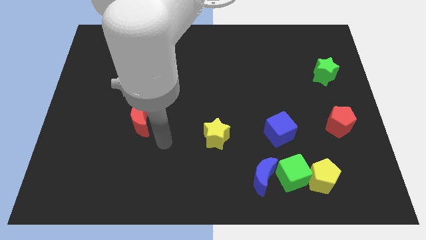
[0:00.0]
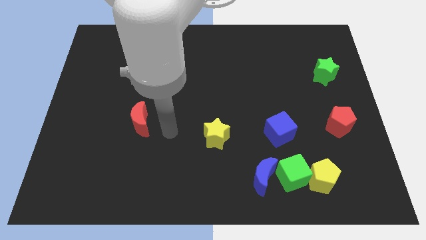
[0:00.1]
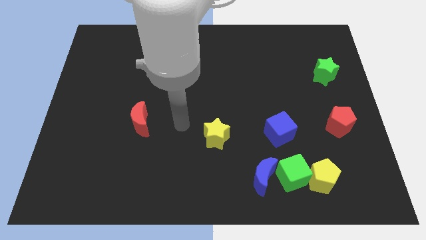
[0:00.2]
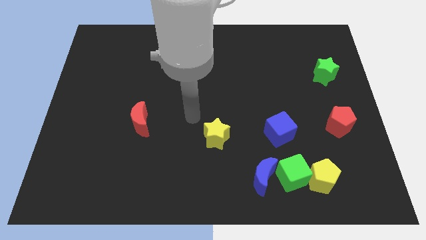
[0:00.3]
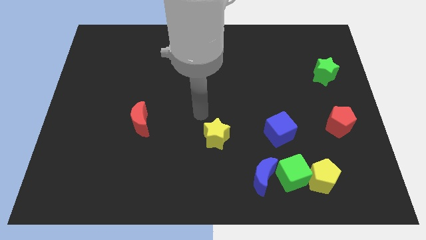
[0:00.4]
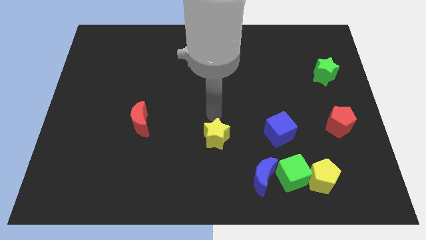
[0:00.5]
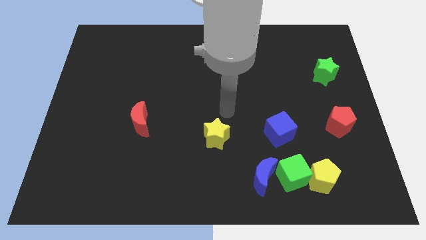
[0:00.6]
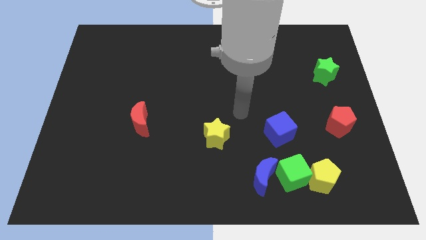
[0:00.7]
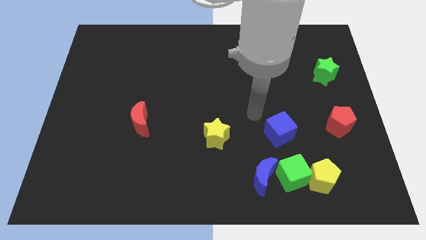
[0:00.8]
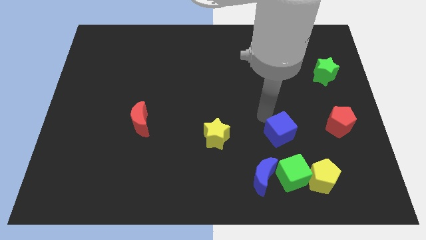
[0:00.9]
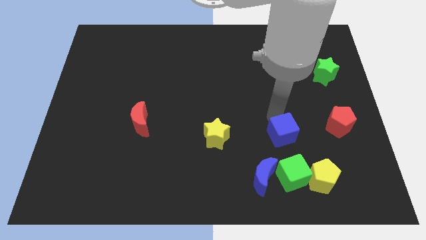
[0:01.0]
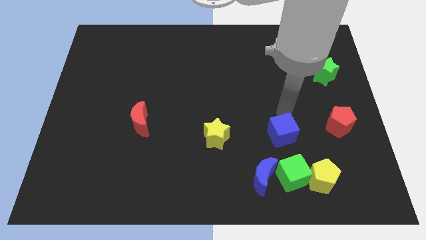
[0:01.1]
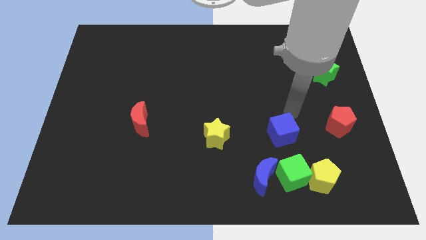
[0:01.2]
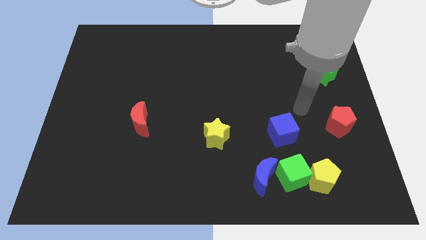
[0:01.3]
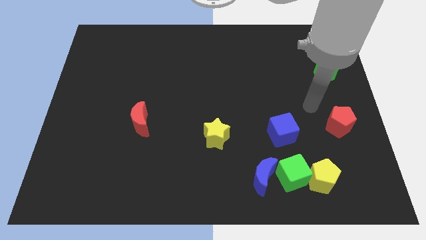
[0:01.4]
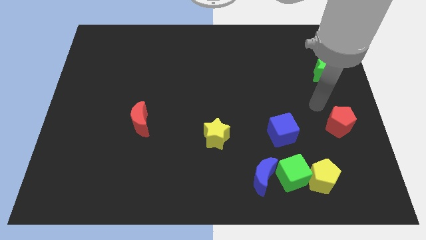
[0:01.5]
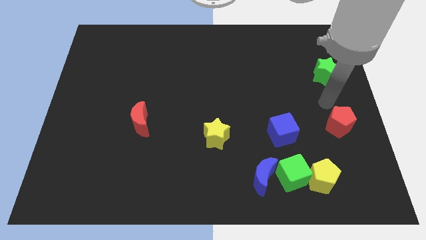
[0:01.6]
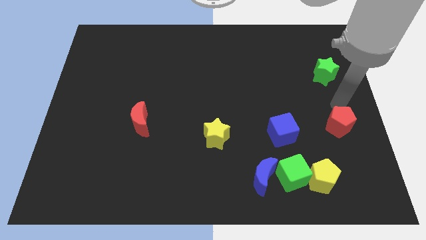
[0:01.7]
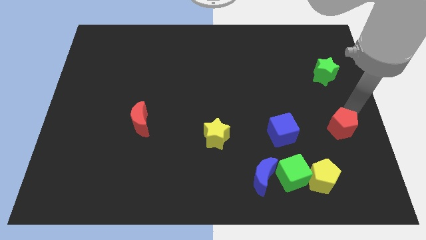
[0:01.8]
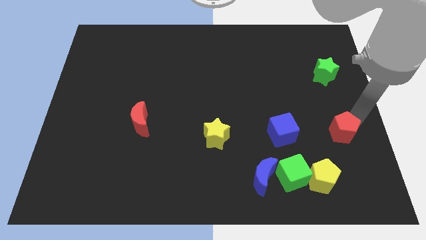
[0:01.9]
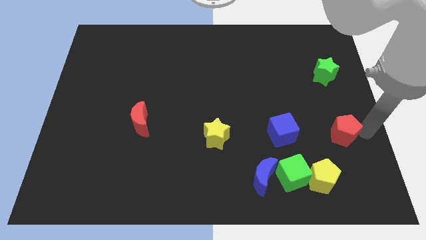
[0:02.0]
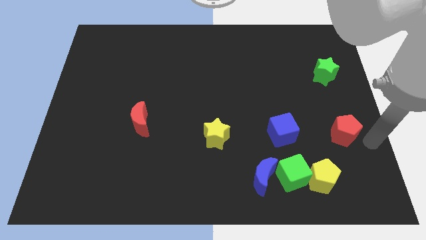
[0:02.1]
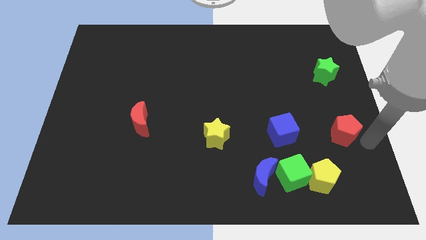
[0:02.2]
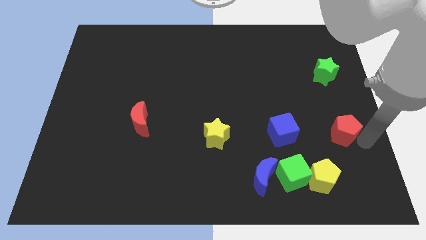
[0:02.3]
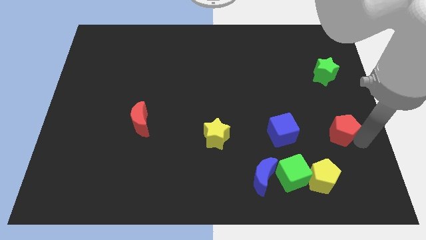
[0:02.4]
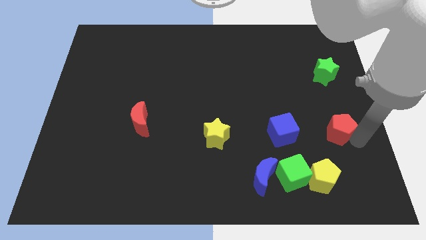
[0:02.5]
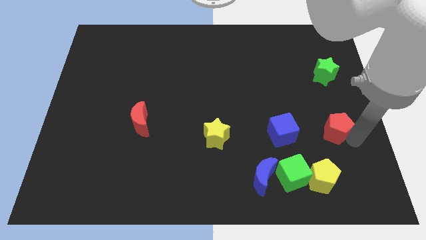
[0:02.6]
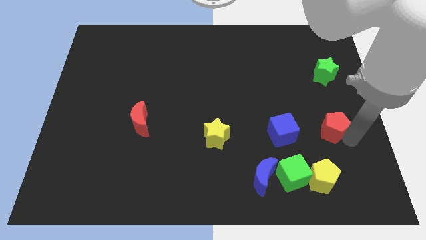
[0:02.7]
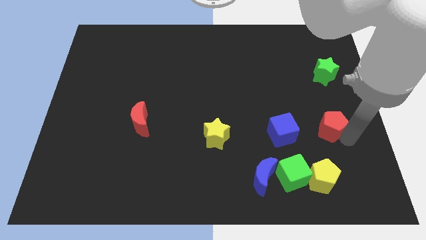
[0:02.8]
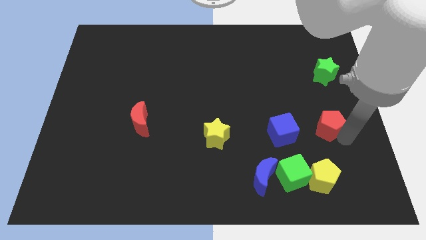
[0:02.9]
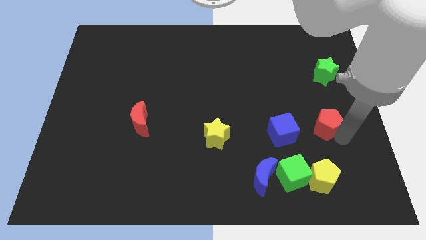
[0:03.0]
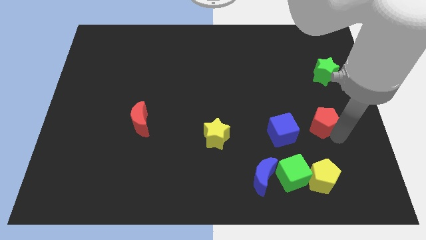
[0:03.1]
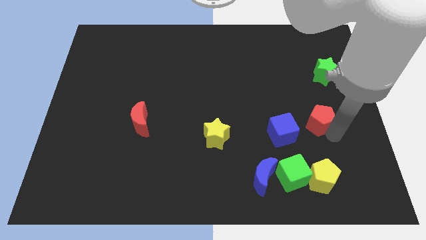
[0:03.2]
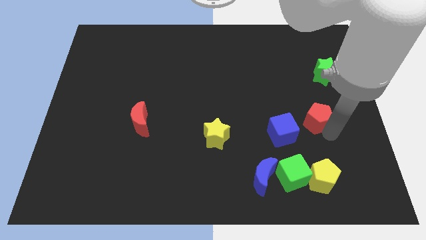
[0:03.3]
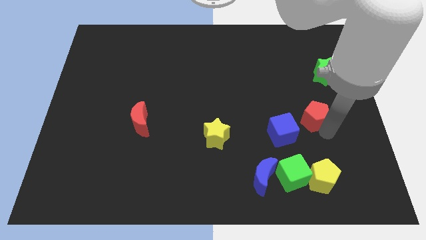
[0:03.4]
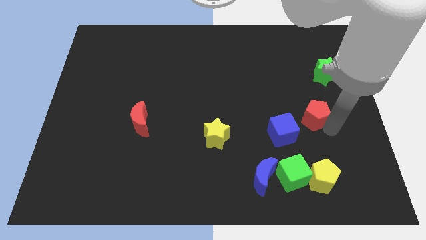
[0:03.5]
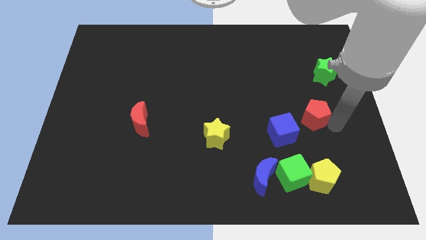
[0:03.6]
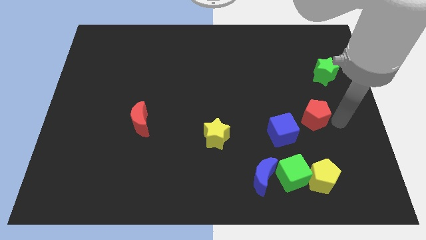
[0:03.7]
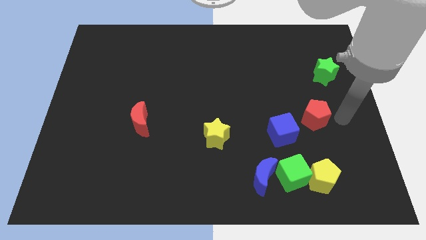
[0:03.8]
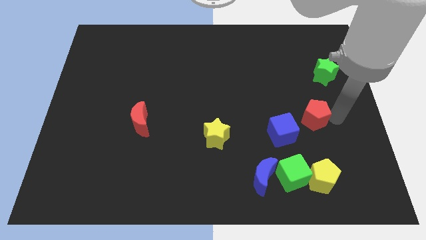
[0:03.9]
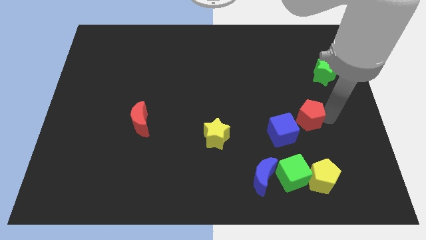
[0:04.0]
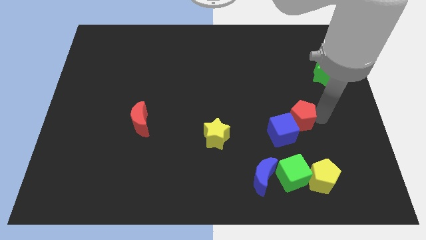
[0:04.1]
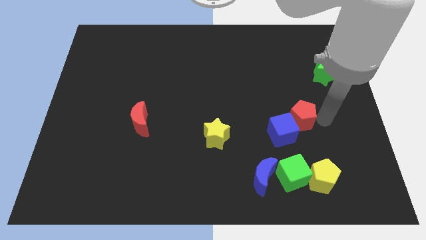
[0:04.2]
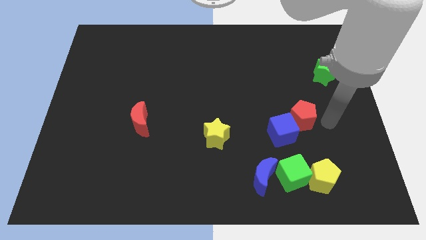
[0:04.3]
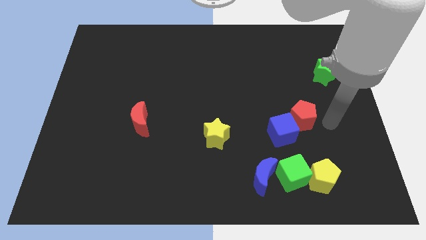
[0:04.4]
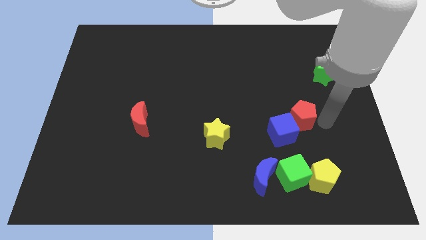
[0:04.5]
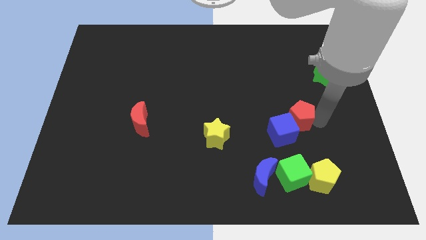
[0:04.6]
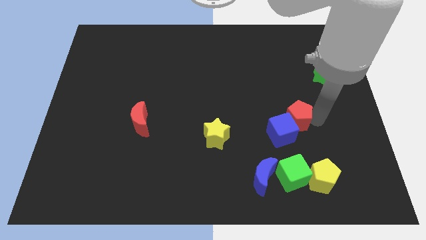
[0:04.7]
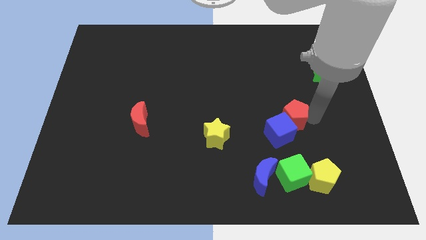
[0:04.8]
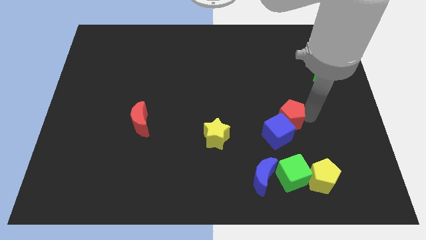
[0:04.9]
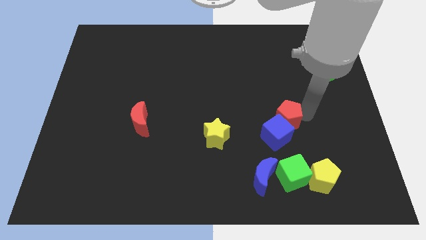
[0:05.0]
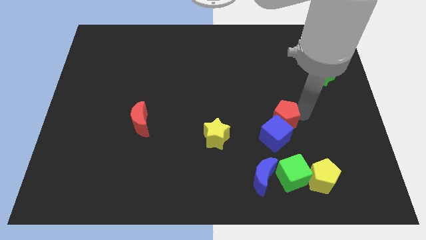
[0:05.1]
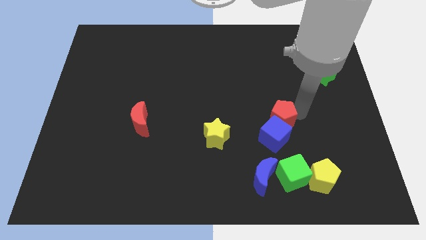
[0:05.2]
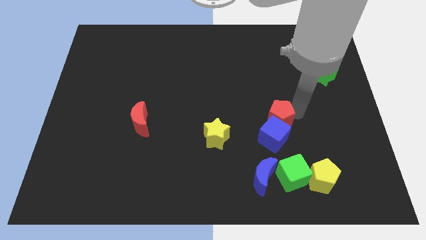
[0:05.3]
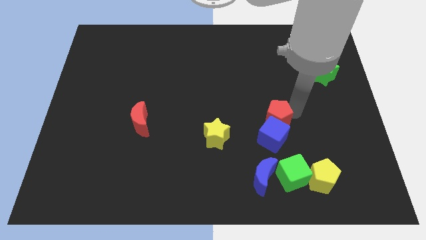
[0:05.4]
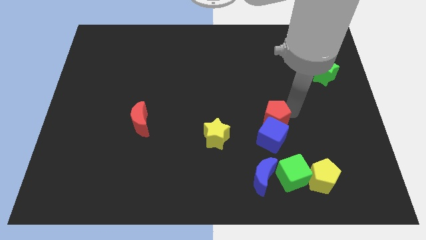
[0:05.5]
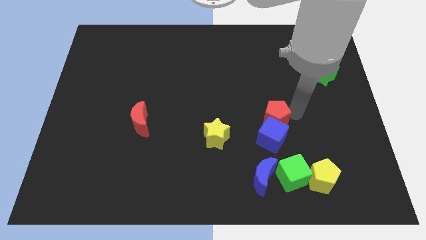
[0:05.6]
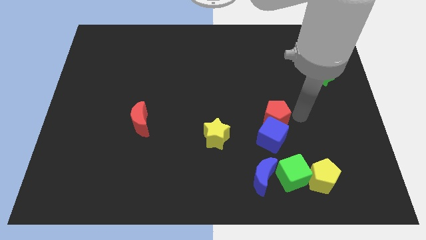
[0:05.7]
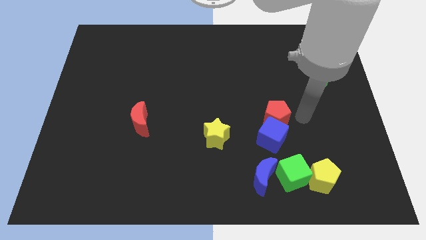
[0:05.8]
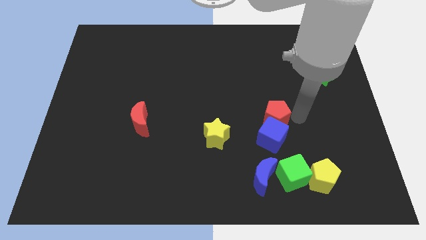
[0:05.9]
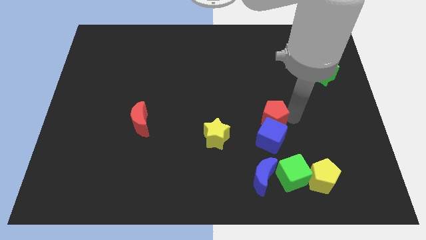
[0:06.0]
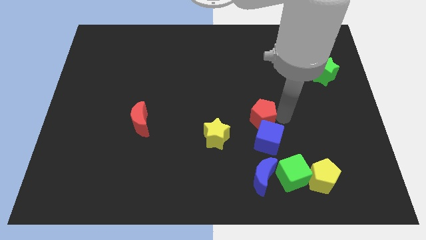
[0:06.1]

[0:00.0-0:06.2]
put the red pentagon to the top right side of the yellow star

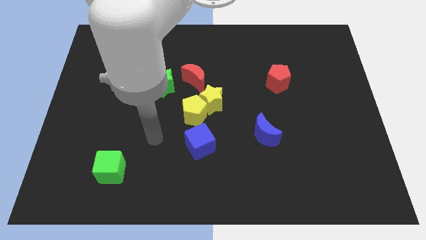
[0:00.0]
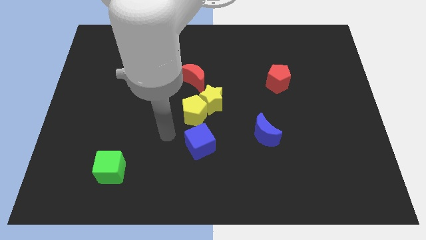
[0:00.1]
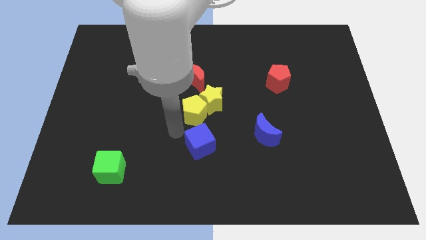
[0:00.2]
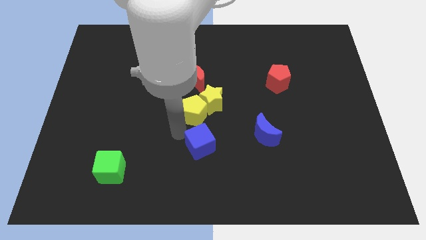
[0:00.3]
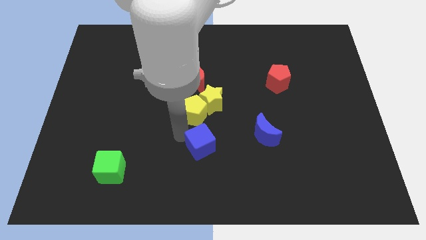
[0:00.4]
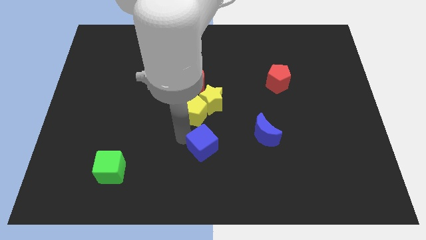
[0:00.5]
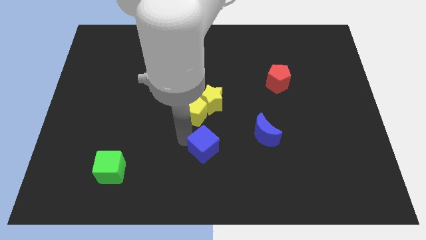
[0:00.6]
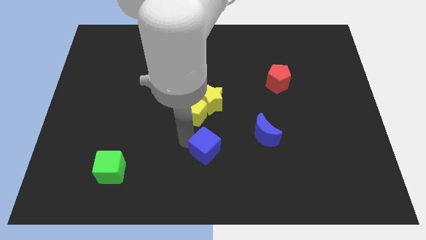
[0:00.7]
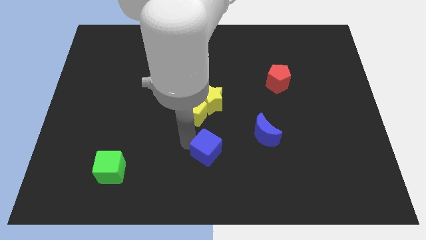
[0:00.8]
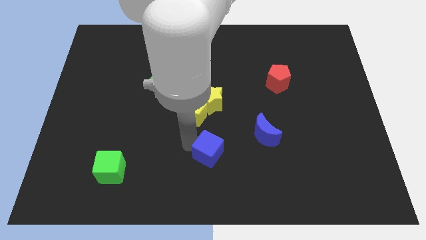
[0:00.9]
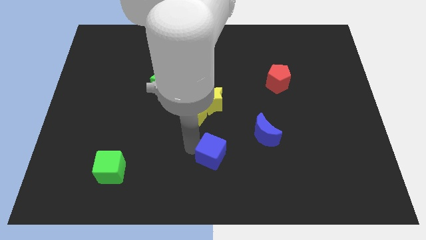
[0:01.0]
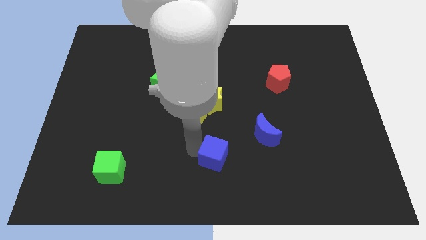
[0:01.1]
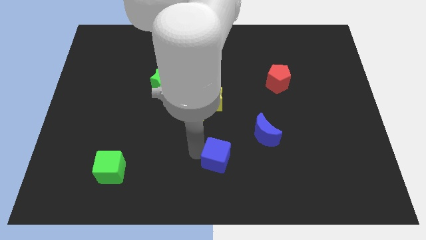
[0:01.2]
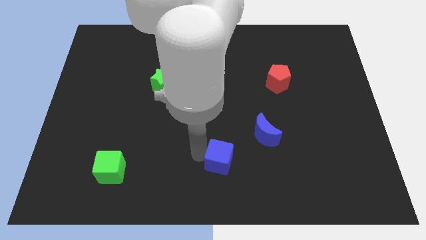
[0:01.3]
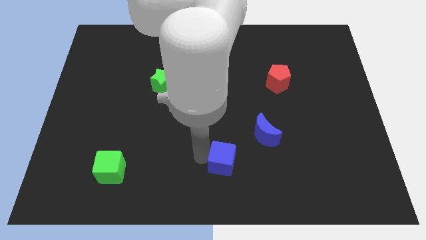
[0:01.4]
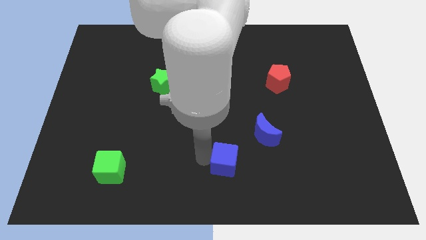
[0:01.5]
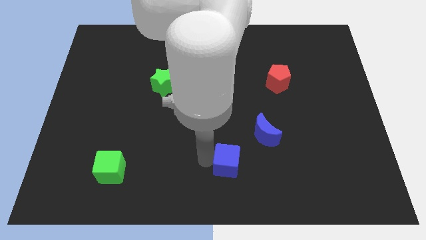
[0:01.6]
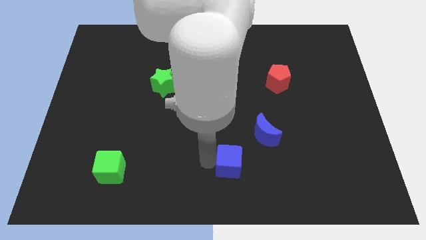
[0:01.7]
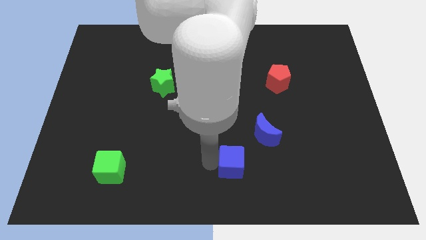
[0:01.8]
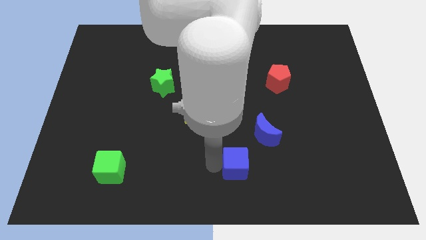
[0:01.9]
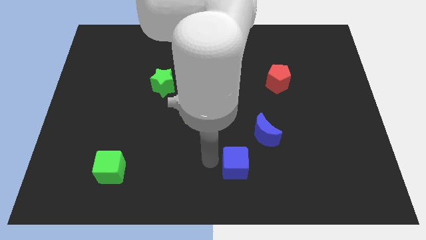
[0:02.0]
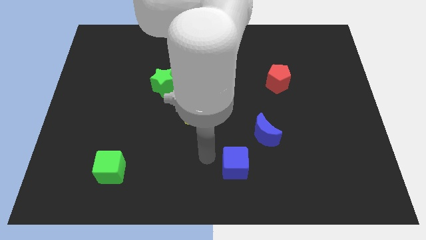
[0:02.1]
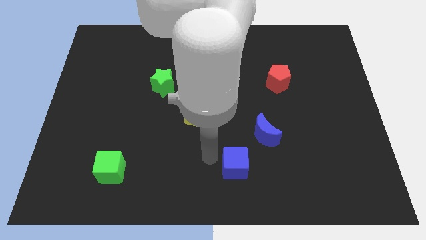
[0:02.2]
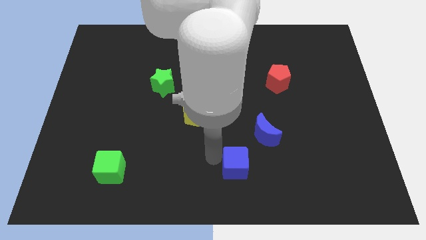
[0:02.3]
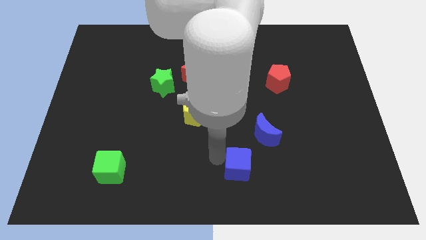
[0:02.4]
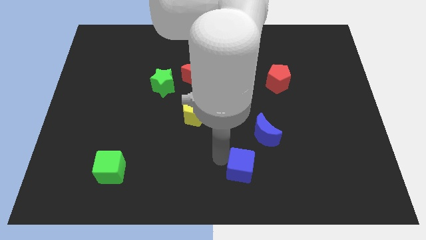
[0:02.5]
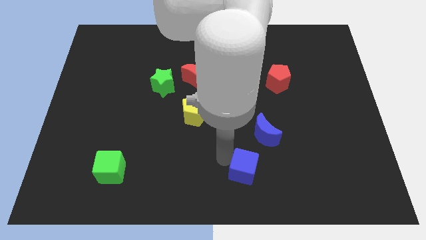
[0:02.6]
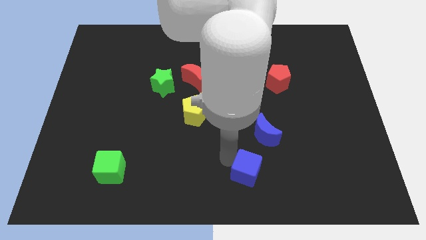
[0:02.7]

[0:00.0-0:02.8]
move the blue cube to the bottom side of the blue moon
